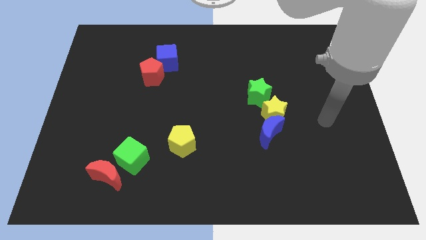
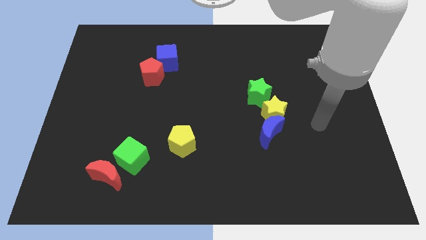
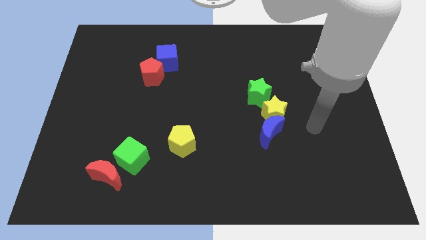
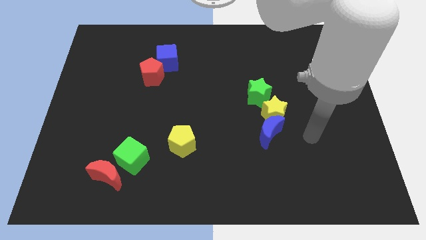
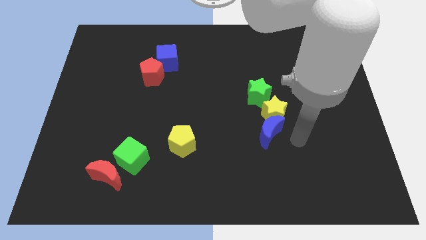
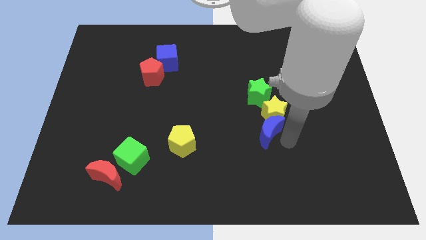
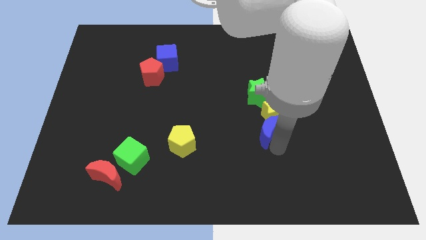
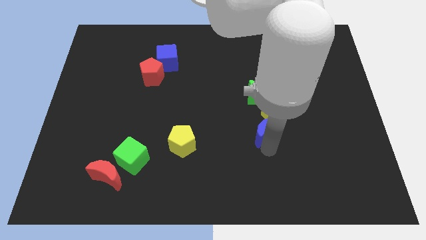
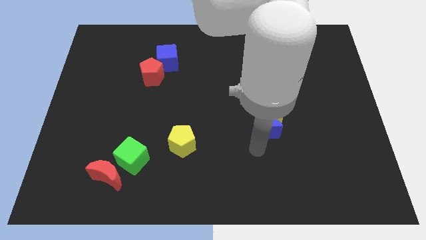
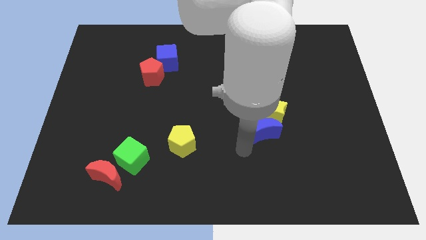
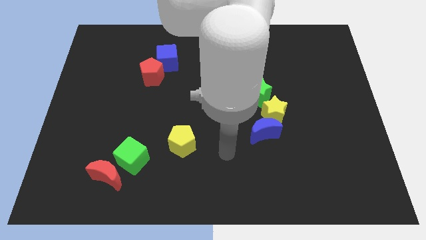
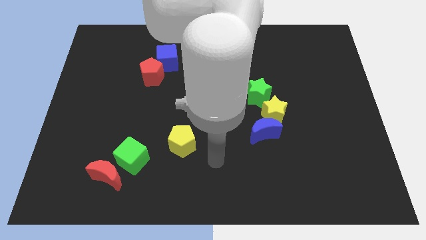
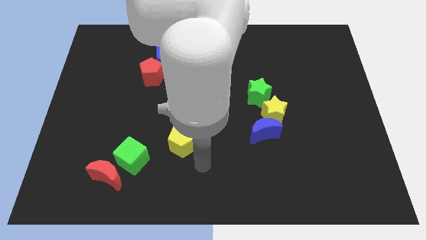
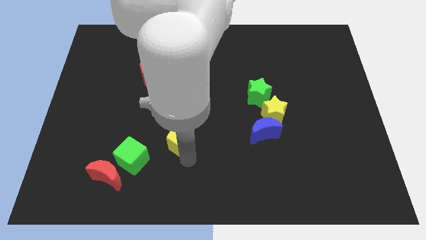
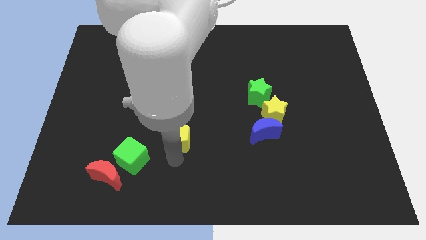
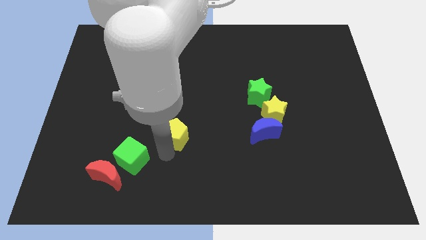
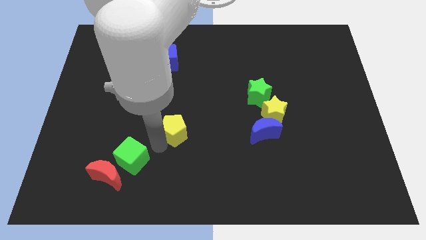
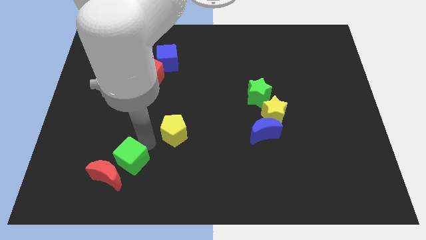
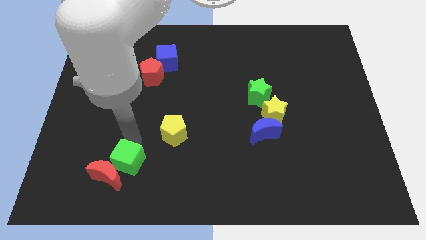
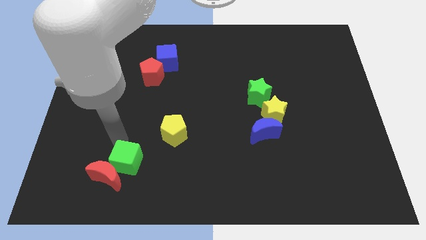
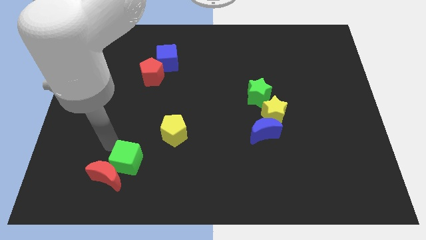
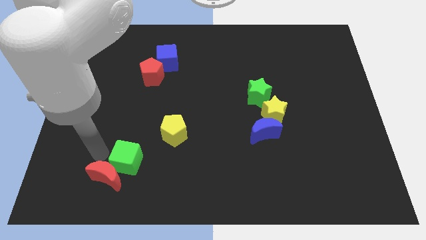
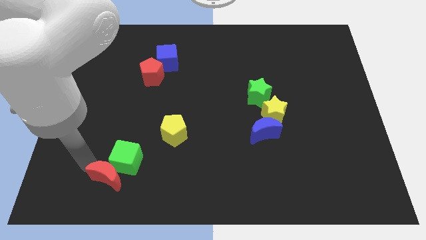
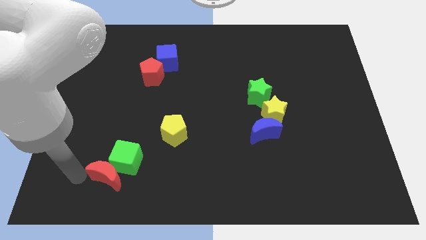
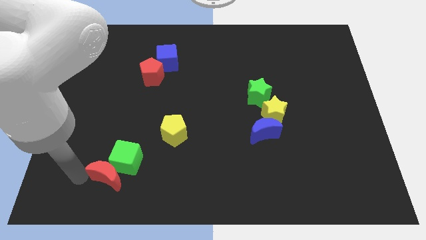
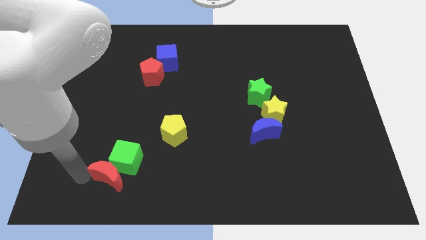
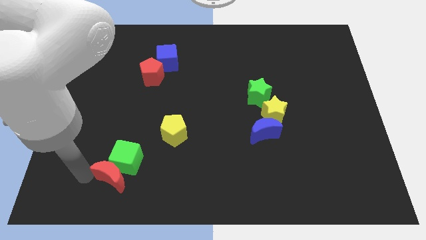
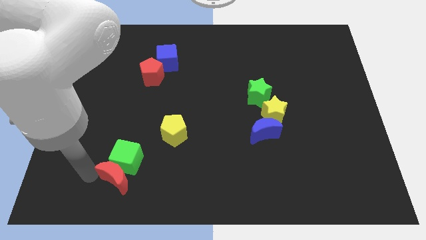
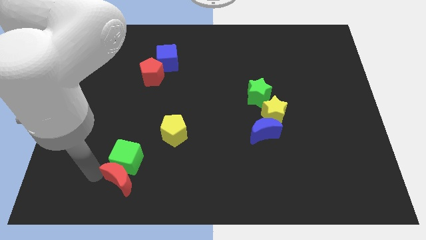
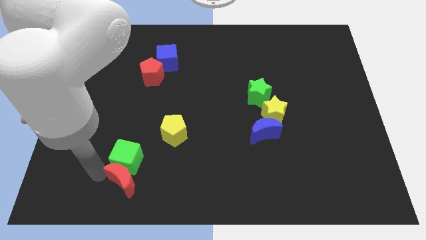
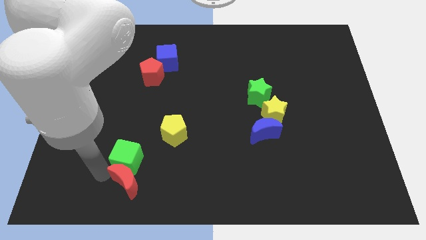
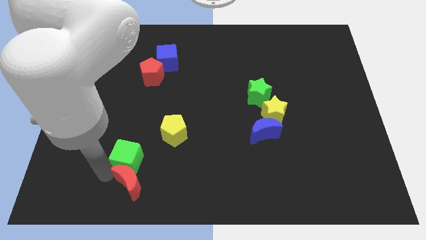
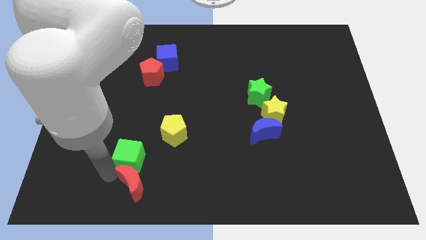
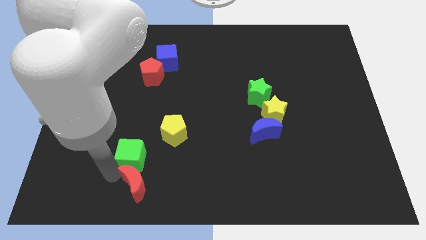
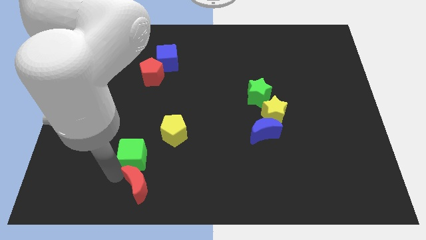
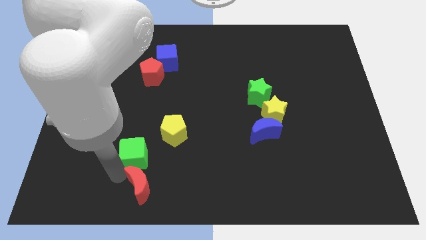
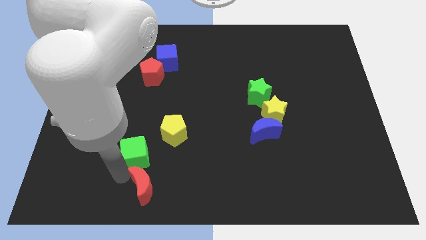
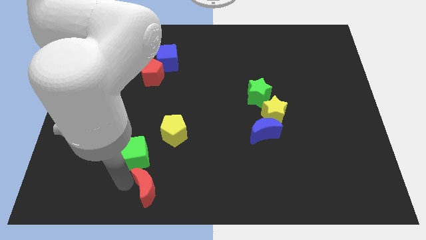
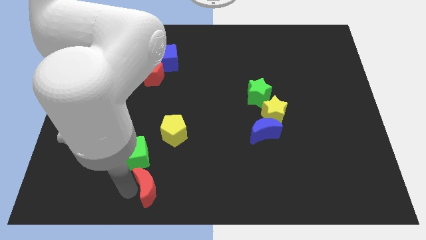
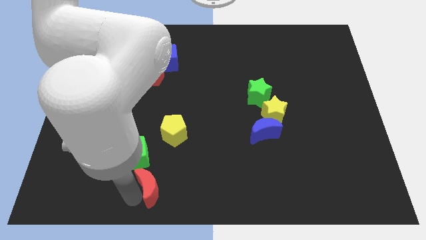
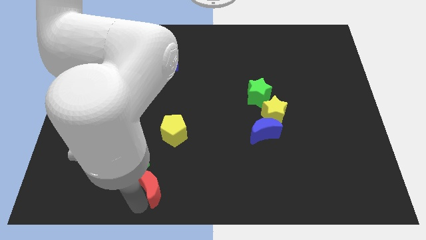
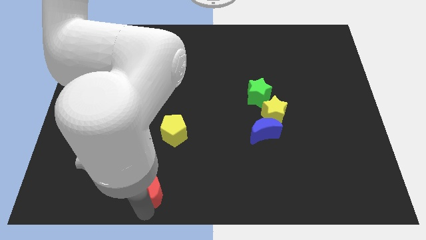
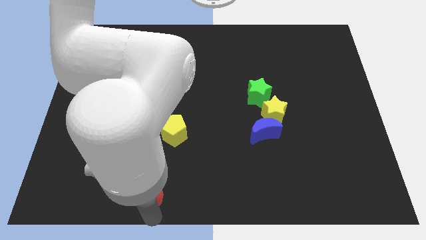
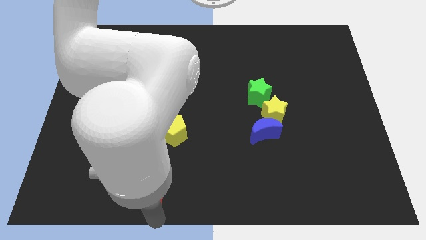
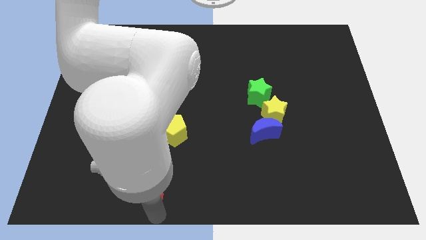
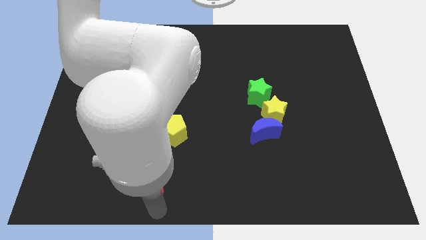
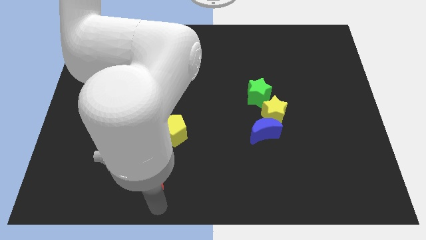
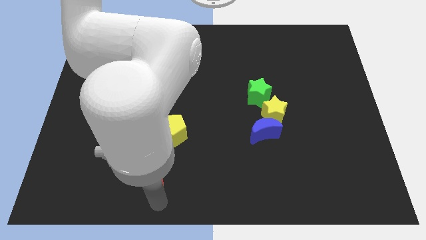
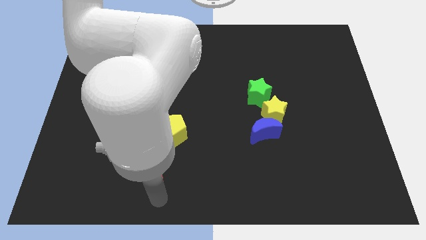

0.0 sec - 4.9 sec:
slide the red moon to the bottom left side of the yellow pentagon

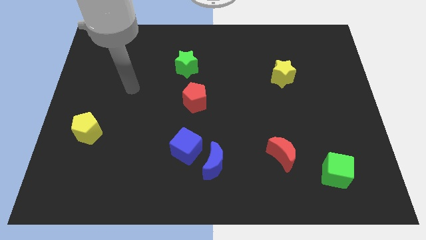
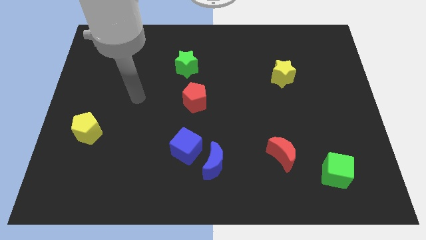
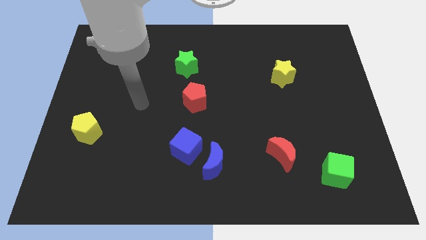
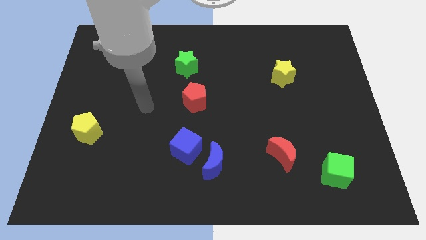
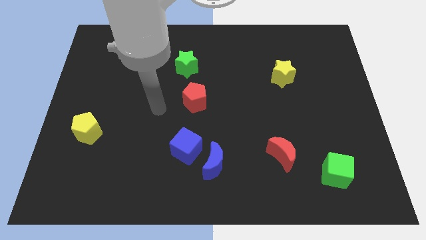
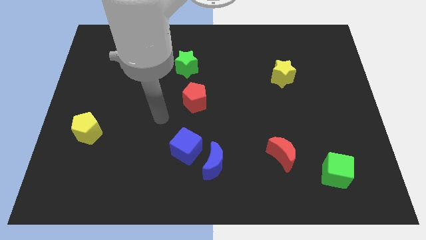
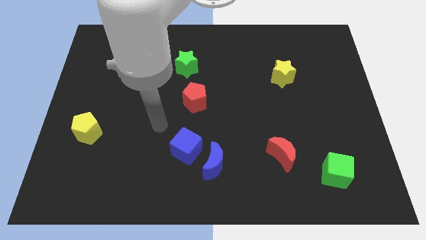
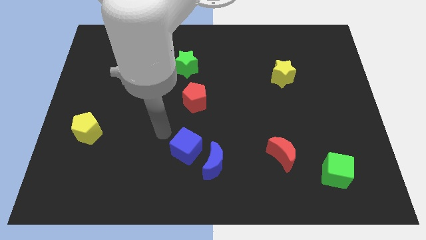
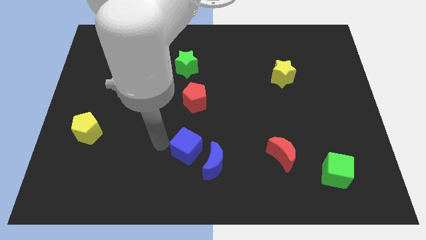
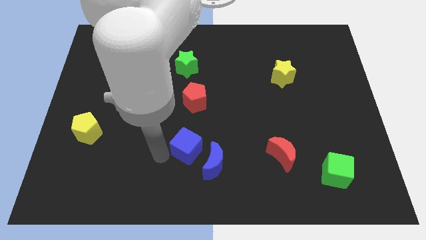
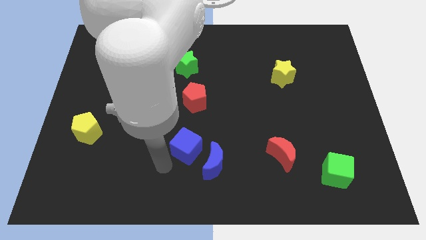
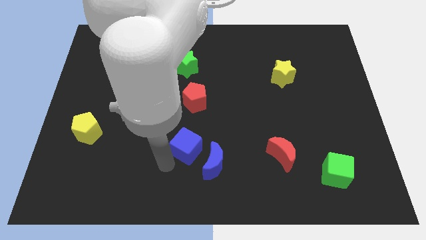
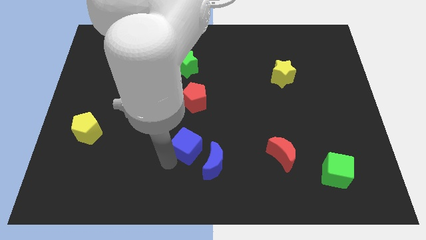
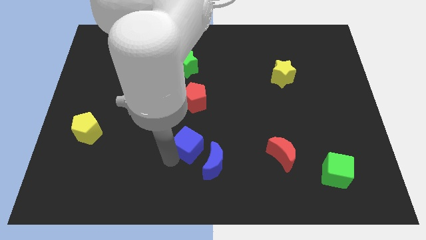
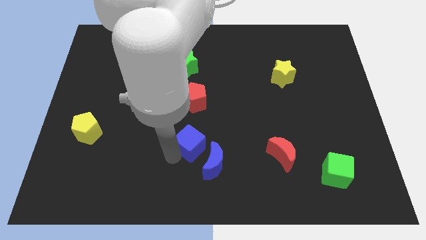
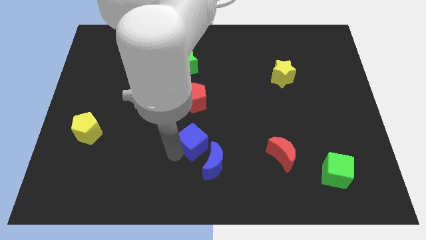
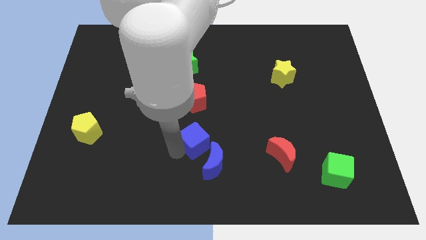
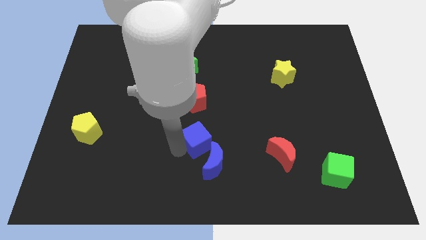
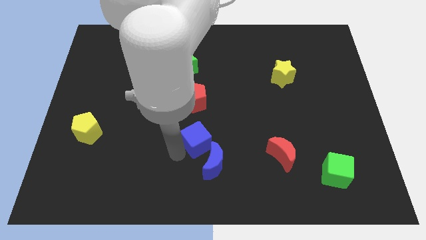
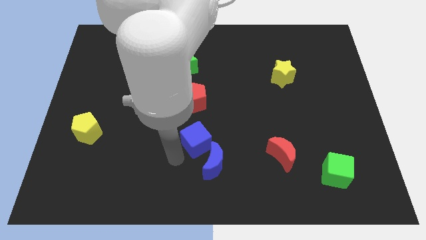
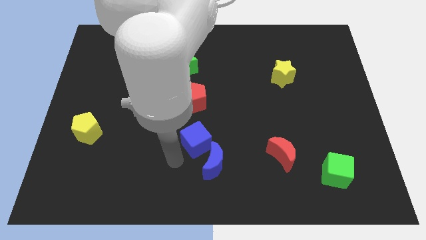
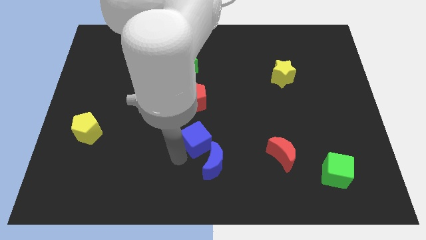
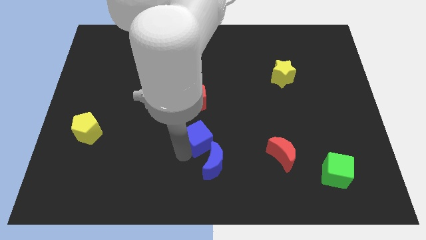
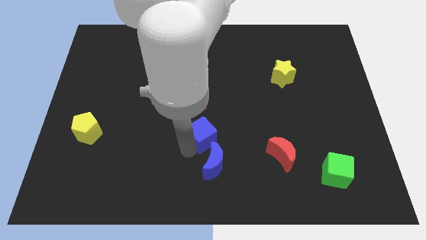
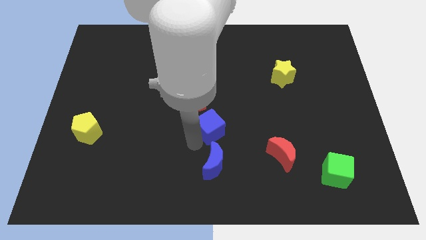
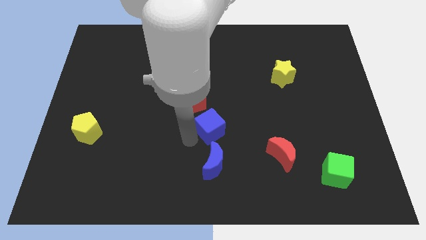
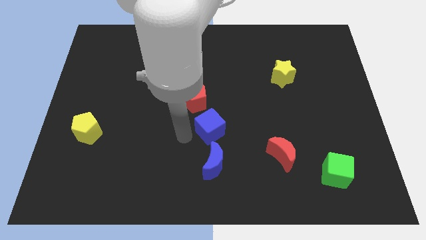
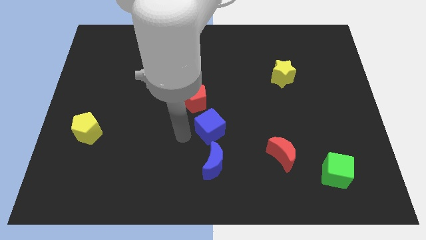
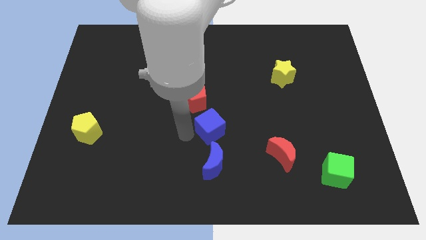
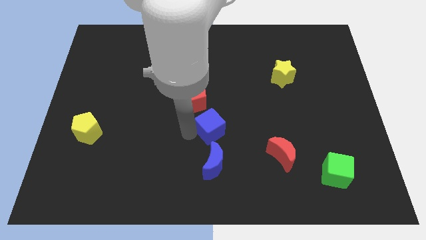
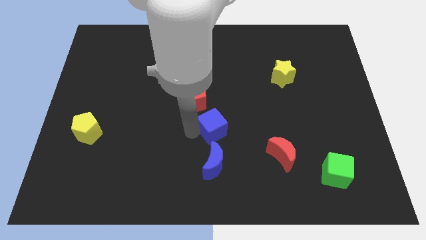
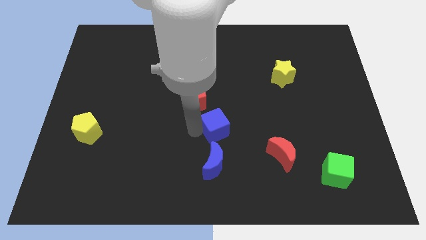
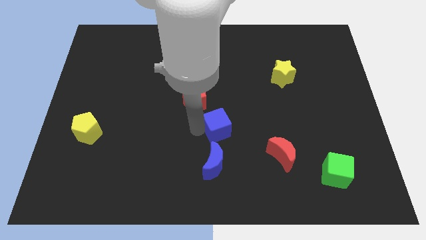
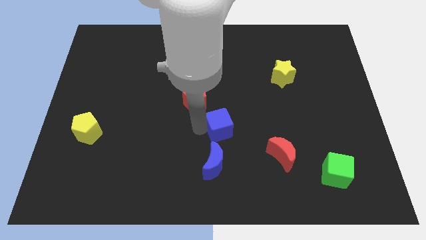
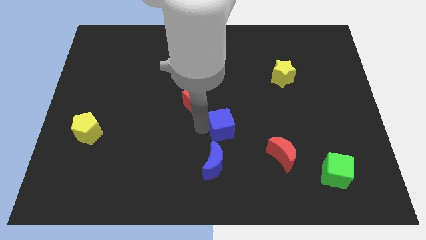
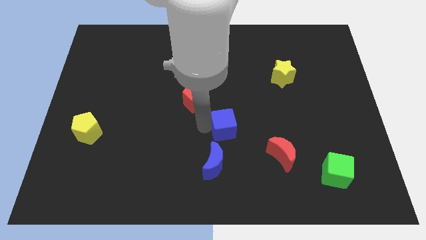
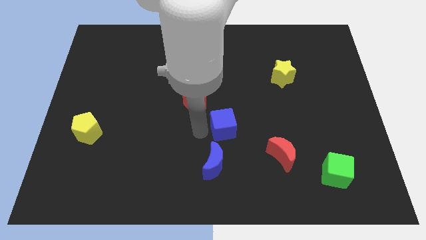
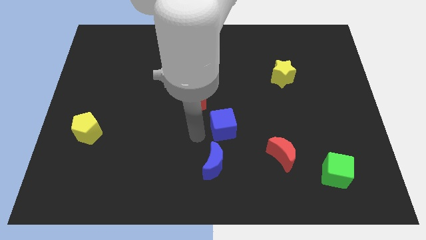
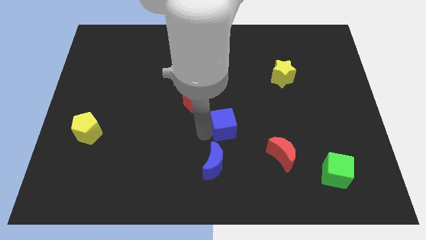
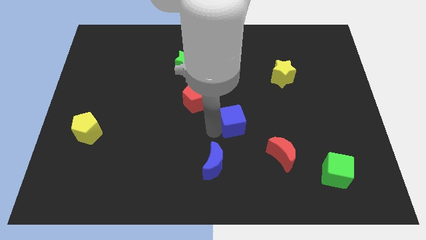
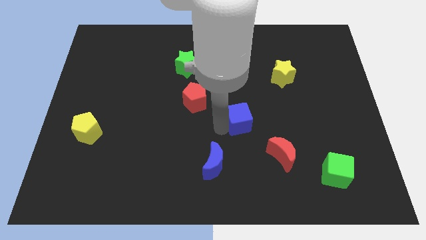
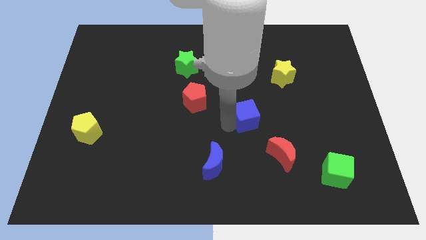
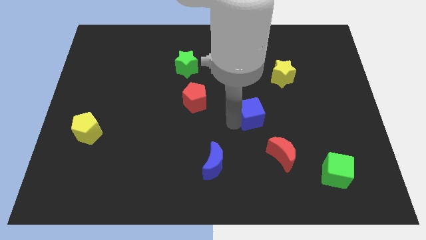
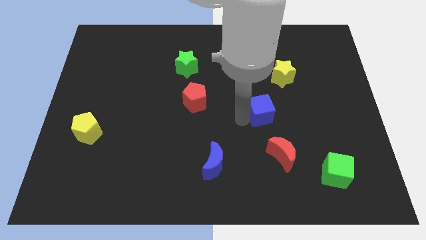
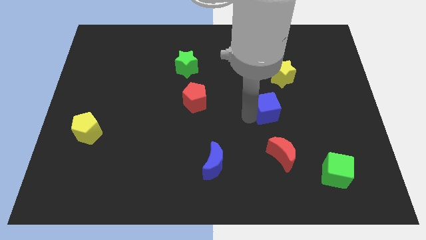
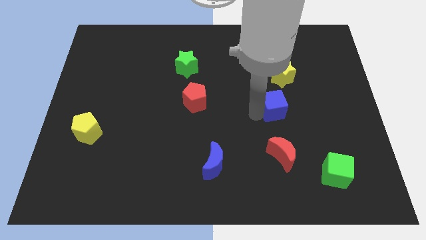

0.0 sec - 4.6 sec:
put the blue cube below the yellow star
